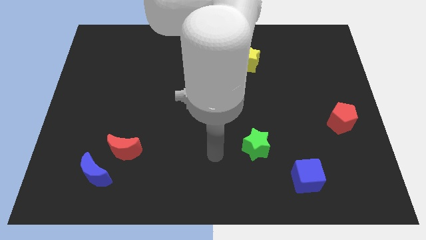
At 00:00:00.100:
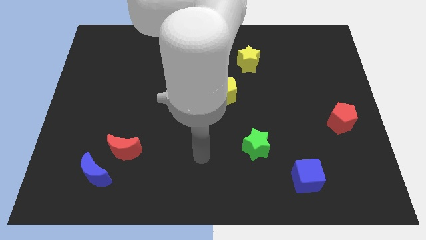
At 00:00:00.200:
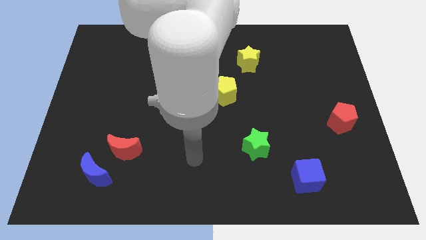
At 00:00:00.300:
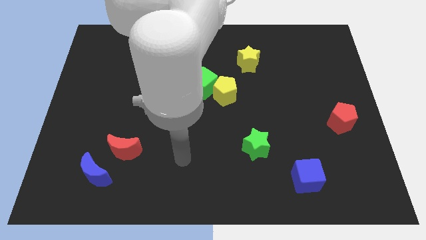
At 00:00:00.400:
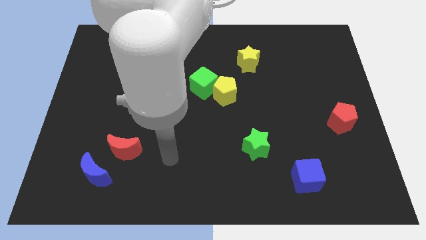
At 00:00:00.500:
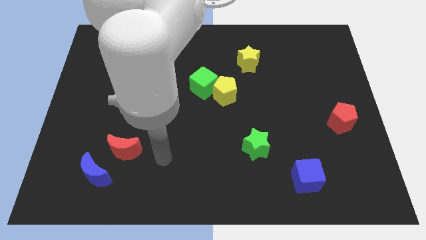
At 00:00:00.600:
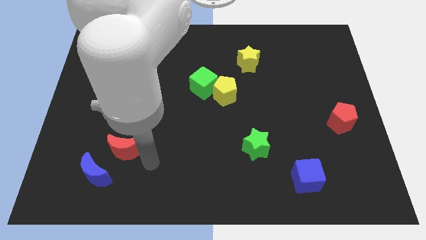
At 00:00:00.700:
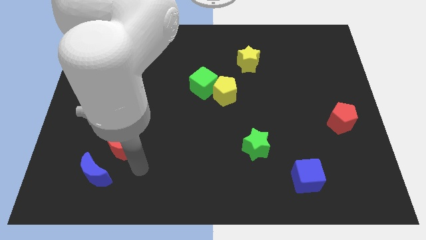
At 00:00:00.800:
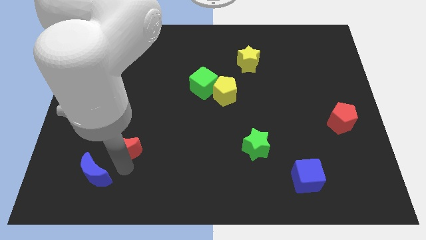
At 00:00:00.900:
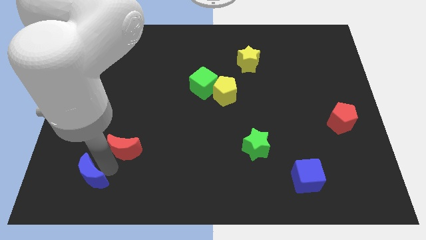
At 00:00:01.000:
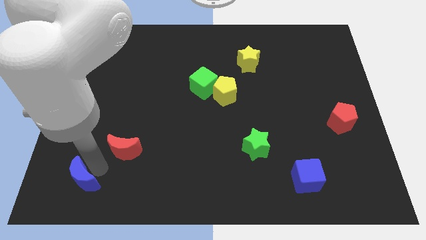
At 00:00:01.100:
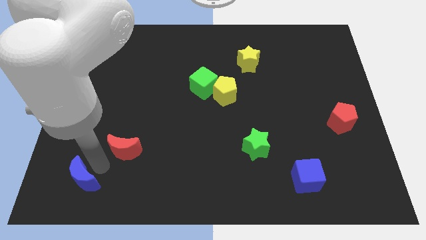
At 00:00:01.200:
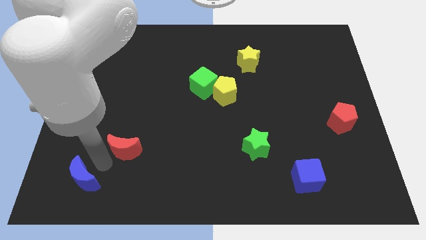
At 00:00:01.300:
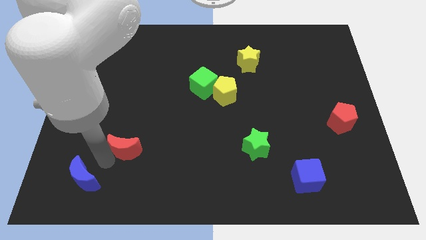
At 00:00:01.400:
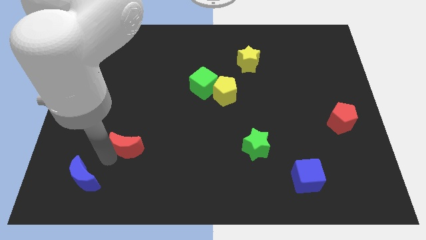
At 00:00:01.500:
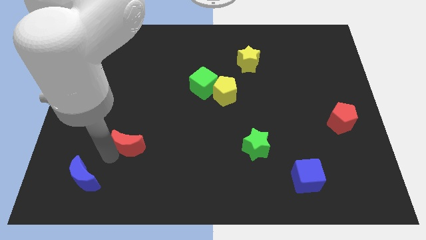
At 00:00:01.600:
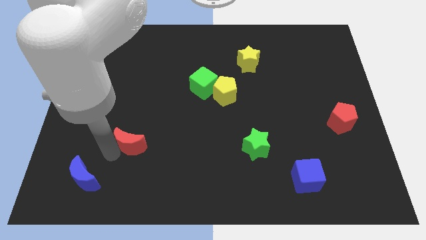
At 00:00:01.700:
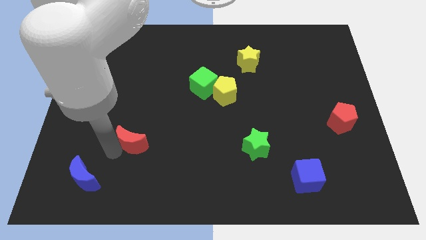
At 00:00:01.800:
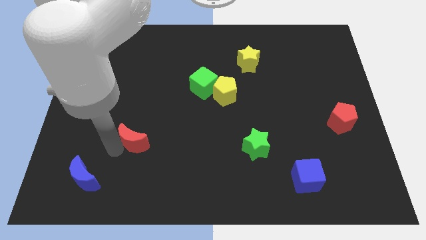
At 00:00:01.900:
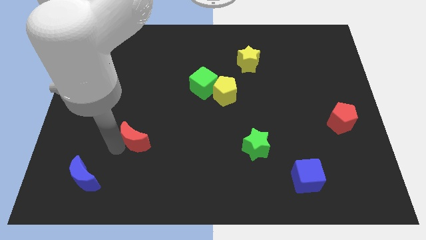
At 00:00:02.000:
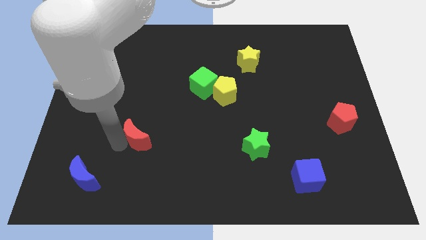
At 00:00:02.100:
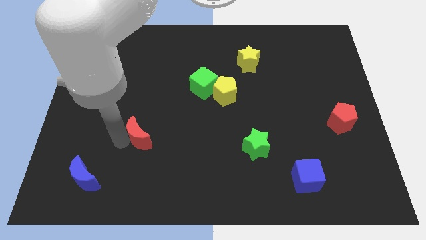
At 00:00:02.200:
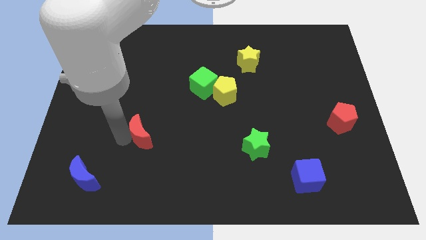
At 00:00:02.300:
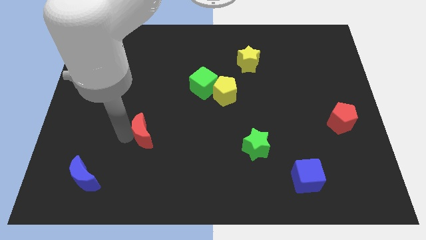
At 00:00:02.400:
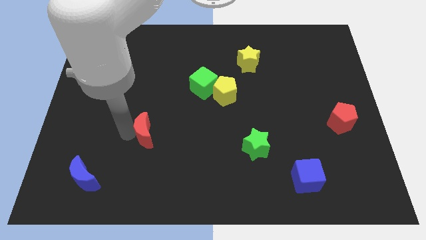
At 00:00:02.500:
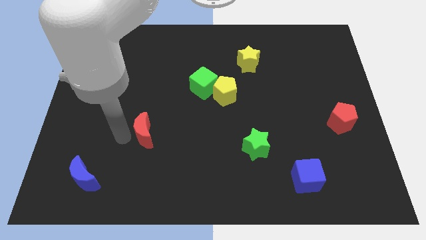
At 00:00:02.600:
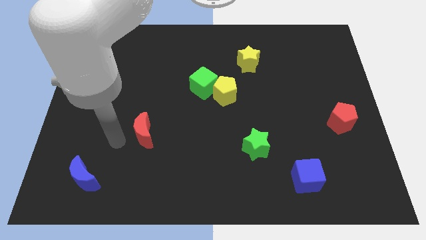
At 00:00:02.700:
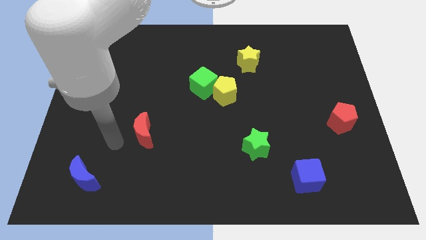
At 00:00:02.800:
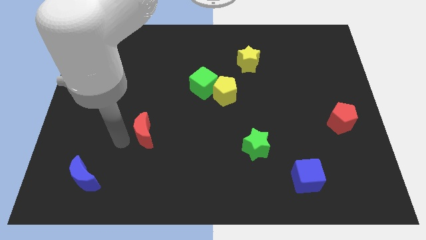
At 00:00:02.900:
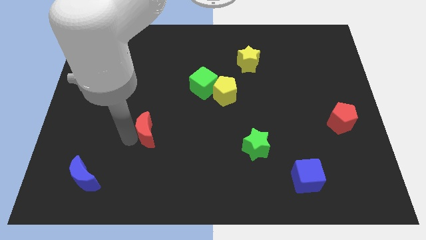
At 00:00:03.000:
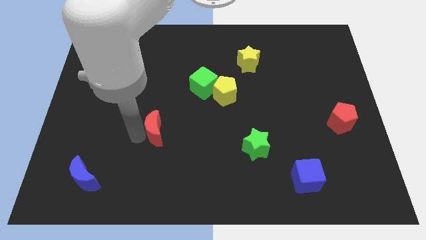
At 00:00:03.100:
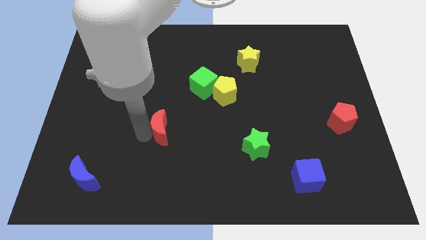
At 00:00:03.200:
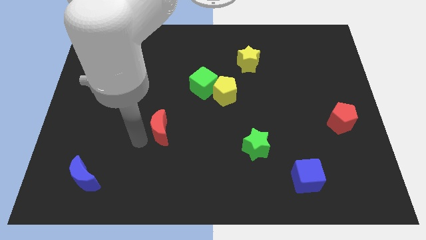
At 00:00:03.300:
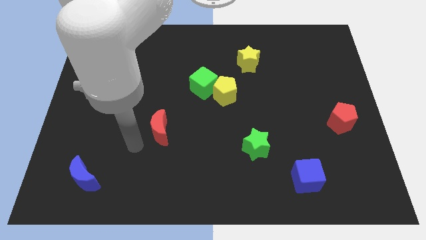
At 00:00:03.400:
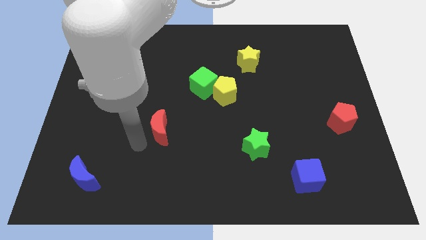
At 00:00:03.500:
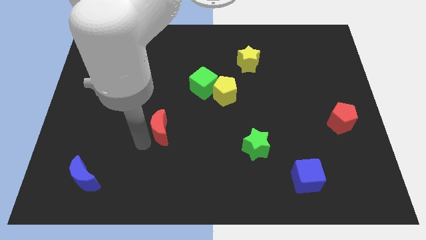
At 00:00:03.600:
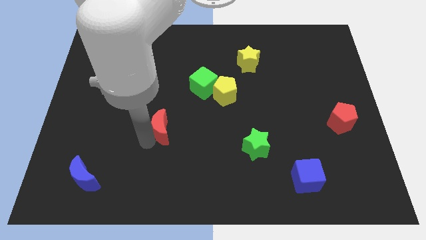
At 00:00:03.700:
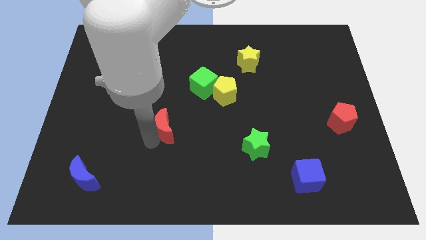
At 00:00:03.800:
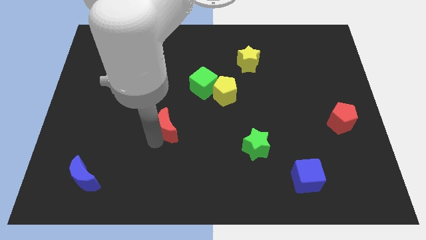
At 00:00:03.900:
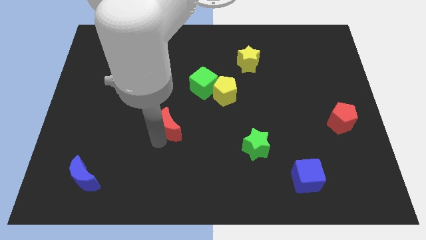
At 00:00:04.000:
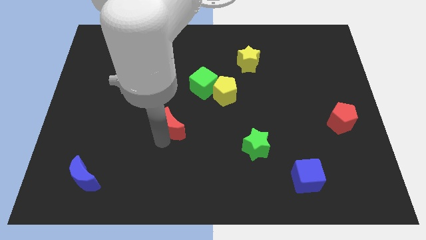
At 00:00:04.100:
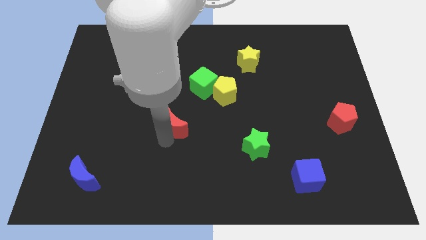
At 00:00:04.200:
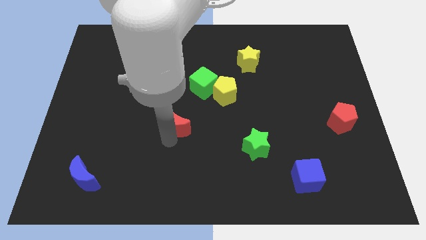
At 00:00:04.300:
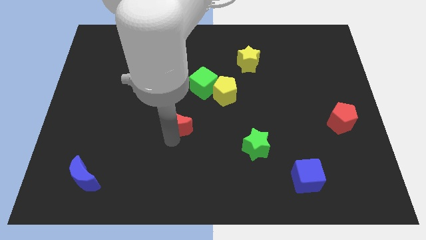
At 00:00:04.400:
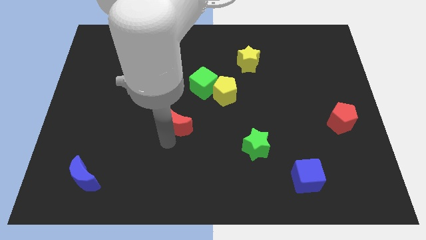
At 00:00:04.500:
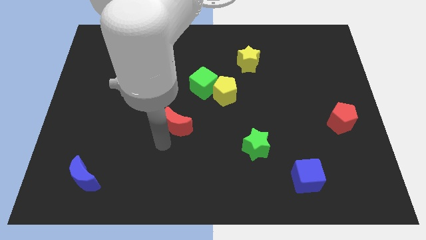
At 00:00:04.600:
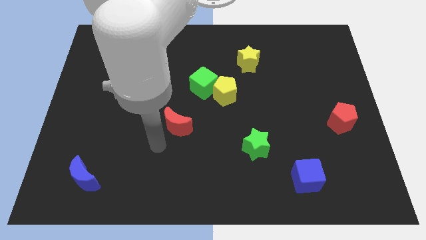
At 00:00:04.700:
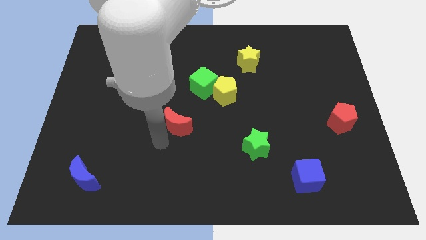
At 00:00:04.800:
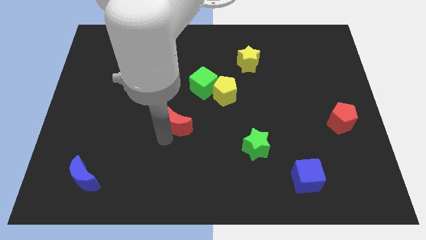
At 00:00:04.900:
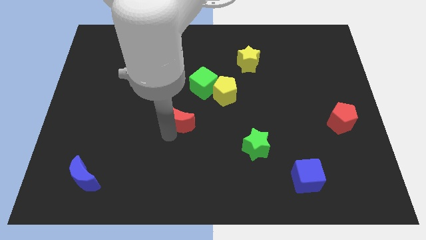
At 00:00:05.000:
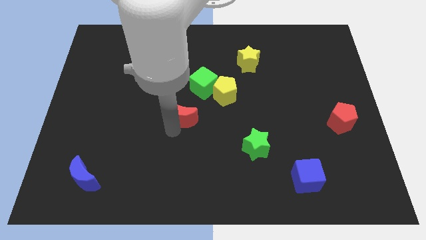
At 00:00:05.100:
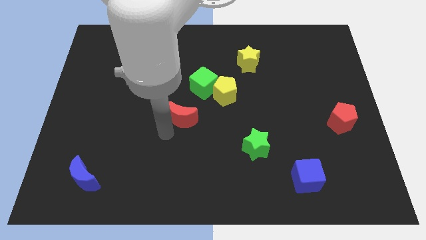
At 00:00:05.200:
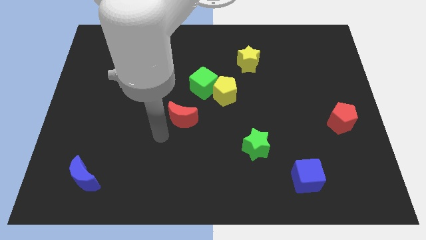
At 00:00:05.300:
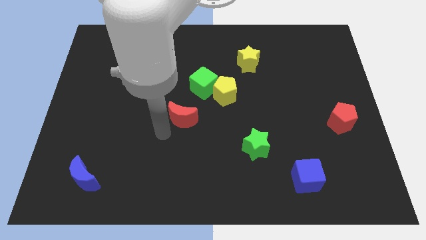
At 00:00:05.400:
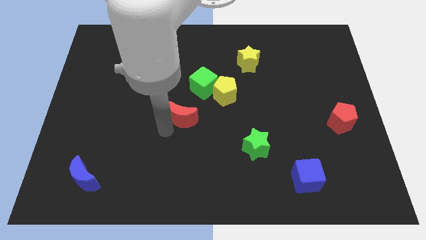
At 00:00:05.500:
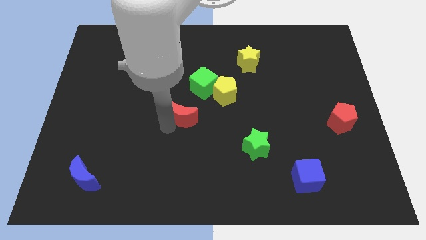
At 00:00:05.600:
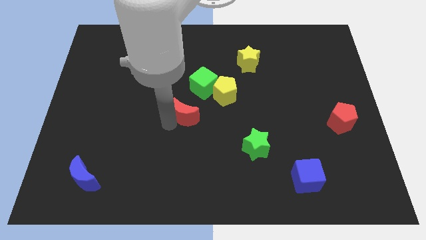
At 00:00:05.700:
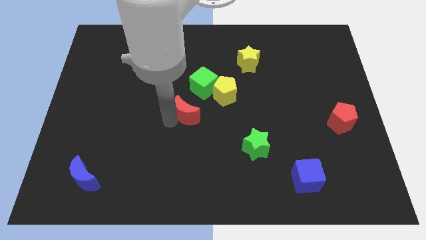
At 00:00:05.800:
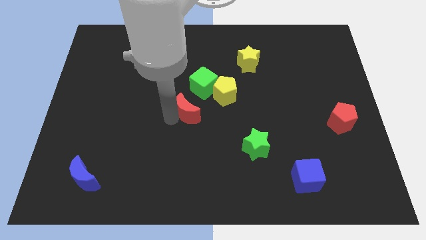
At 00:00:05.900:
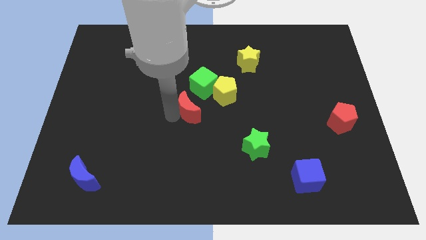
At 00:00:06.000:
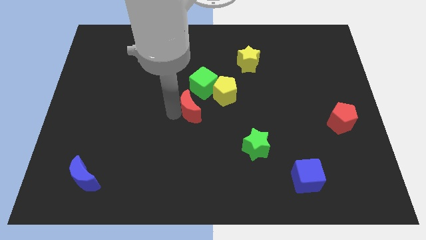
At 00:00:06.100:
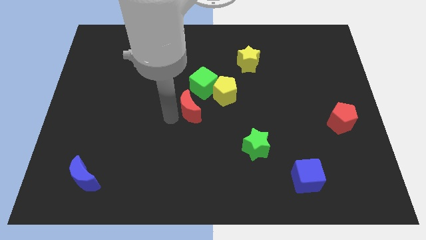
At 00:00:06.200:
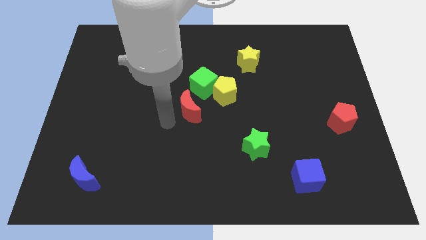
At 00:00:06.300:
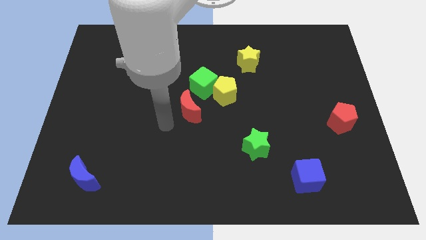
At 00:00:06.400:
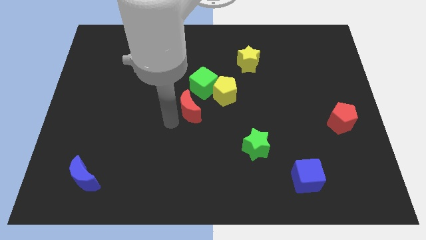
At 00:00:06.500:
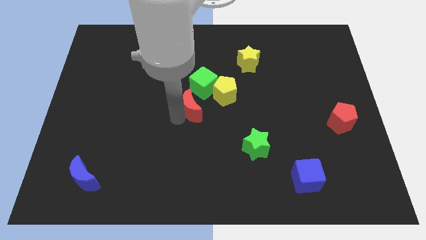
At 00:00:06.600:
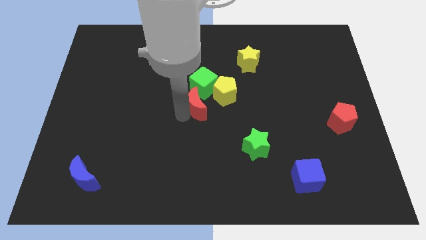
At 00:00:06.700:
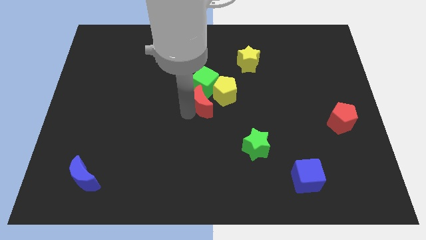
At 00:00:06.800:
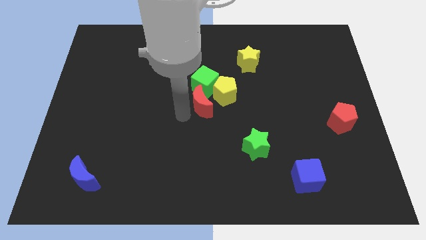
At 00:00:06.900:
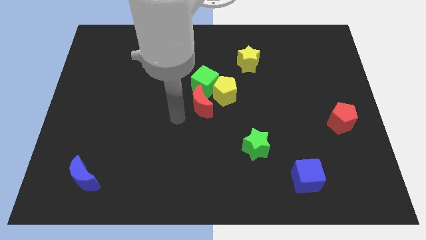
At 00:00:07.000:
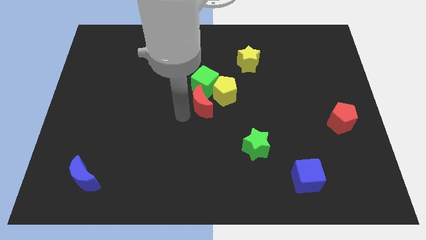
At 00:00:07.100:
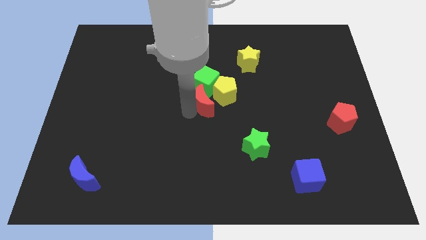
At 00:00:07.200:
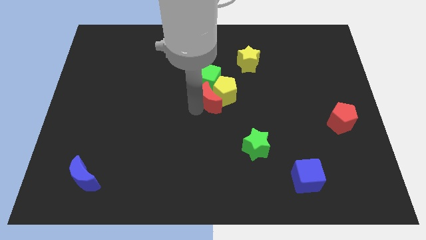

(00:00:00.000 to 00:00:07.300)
move the red moon next to the yellow pentagon
